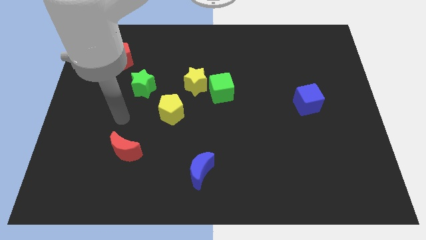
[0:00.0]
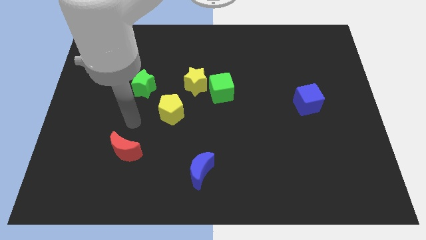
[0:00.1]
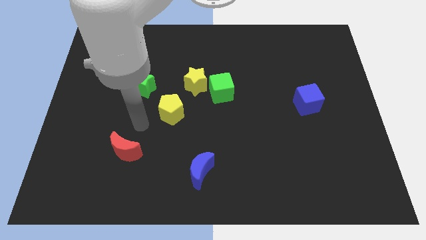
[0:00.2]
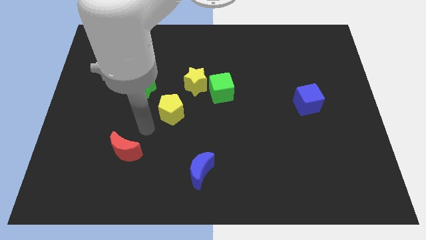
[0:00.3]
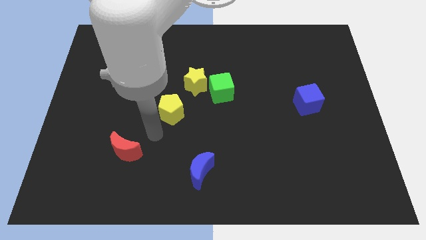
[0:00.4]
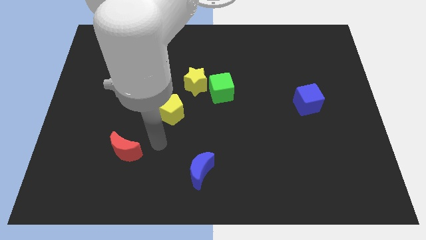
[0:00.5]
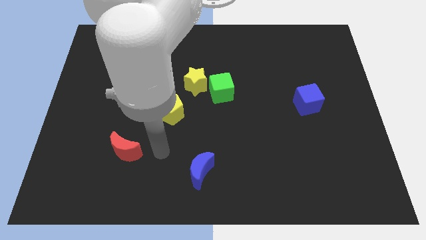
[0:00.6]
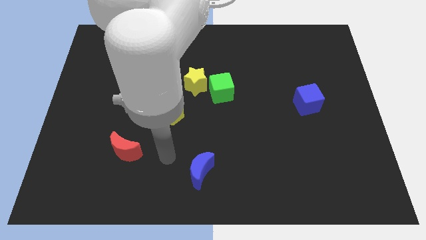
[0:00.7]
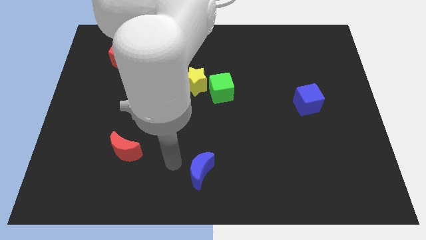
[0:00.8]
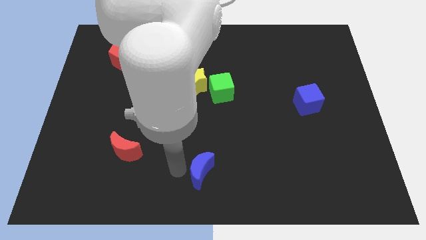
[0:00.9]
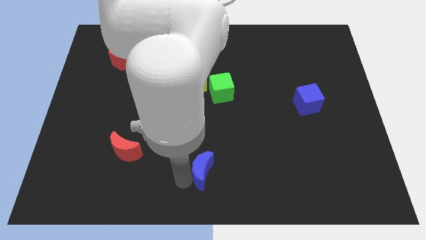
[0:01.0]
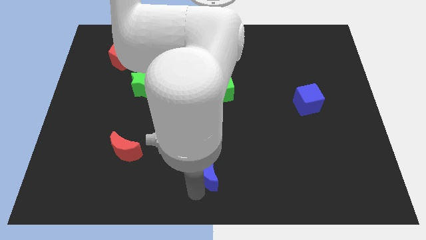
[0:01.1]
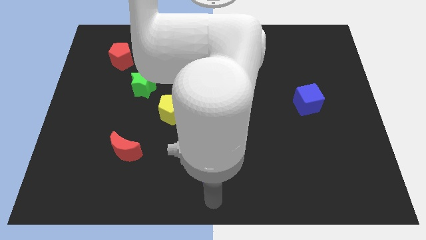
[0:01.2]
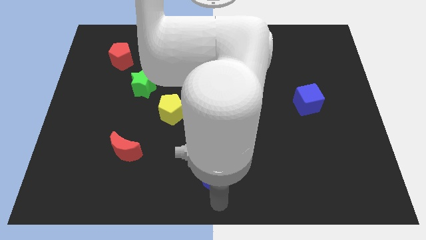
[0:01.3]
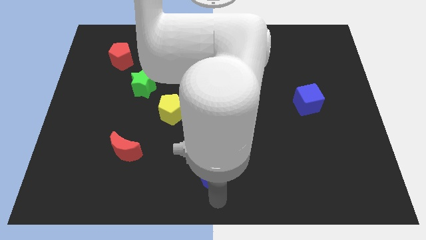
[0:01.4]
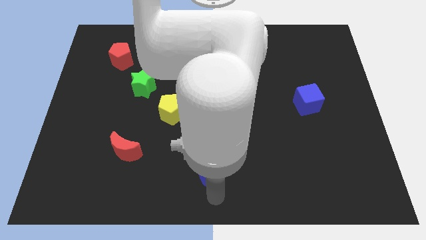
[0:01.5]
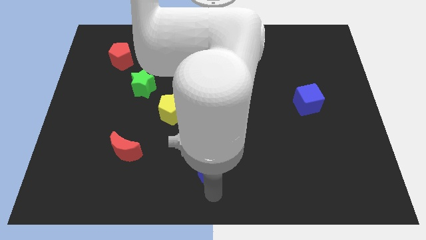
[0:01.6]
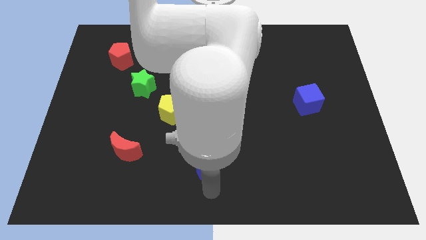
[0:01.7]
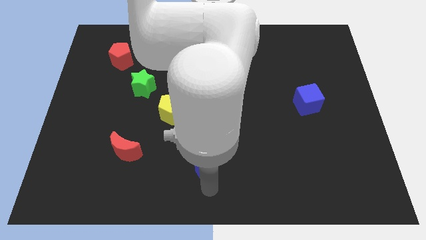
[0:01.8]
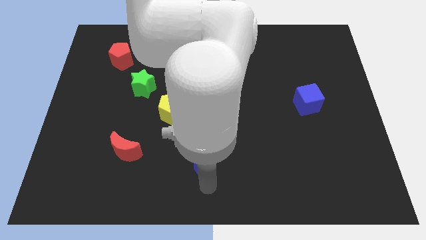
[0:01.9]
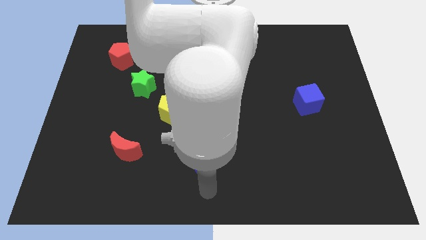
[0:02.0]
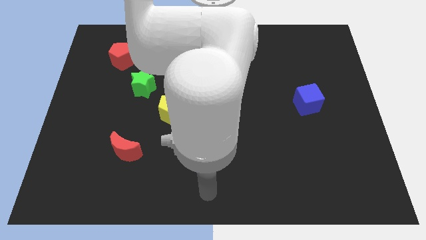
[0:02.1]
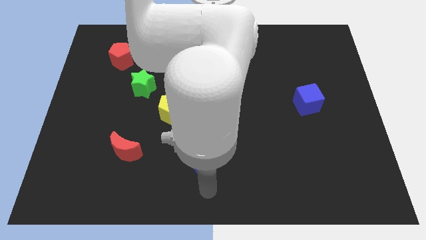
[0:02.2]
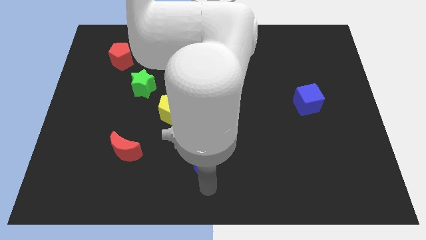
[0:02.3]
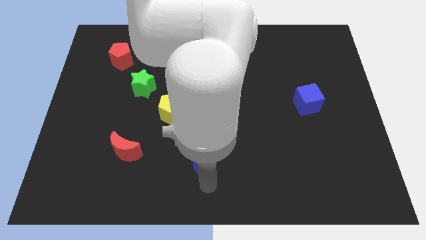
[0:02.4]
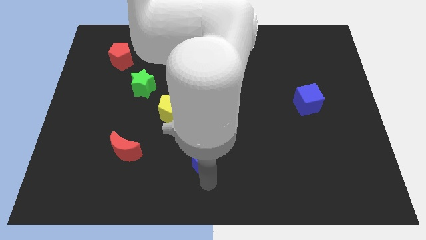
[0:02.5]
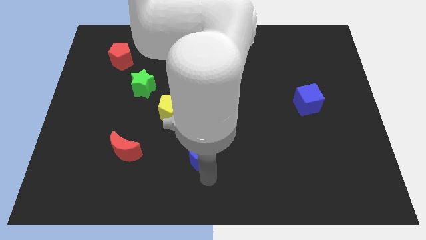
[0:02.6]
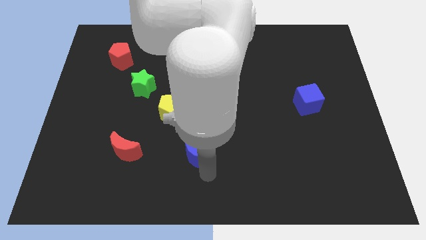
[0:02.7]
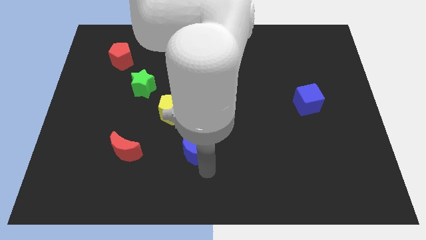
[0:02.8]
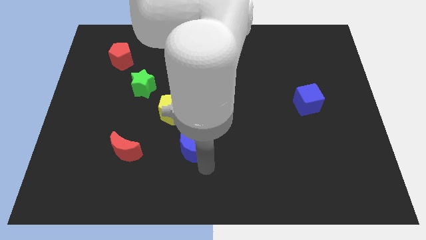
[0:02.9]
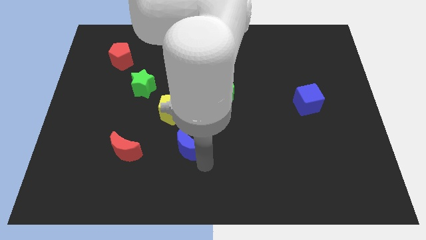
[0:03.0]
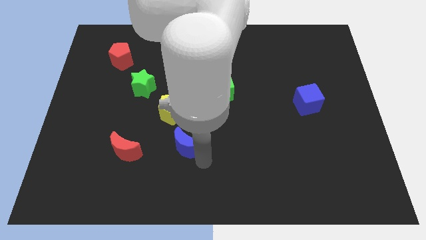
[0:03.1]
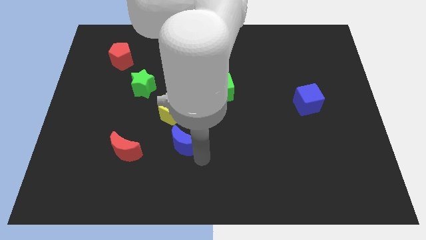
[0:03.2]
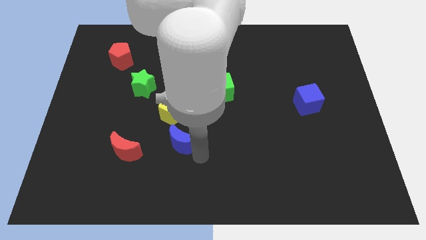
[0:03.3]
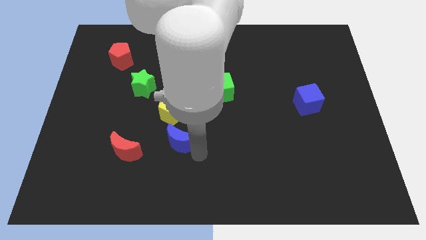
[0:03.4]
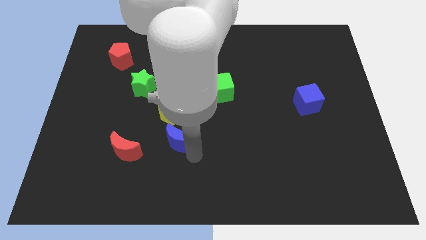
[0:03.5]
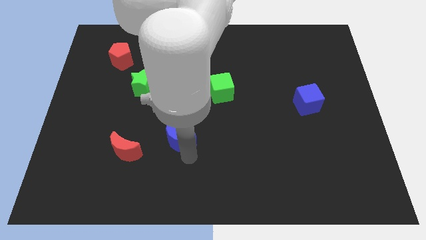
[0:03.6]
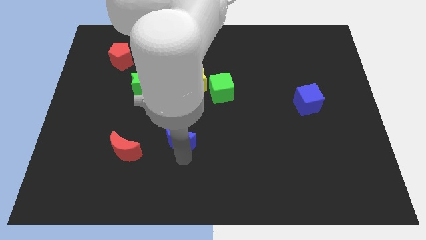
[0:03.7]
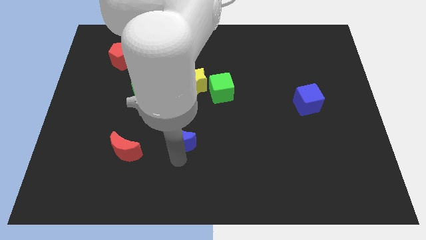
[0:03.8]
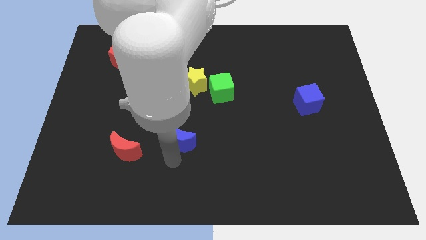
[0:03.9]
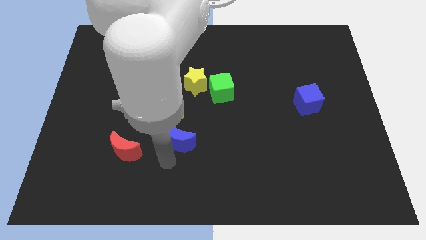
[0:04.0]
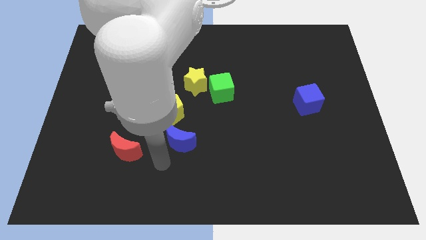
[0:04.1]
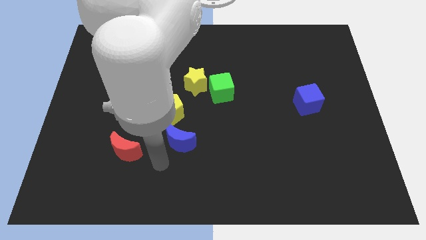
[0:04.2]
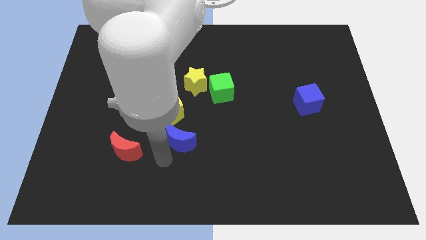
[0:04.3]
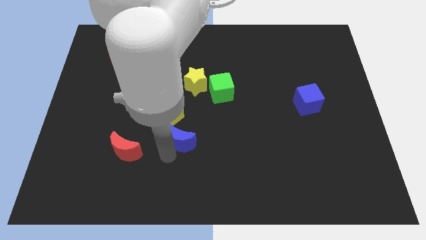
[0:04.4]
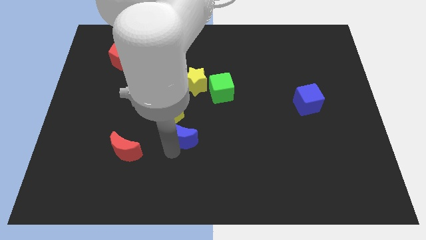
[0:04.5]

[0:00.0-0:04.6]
slightly slide the blue moon upwards

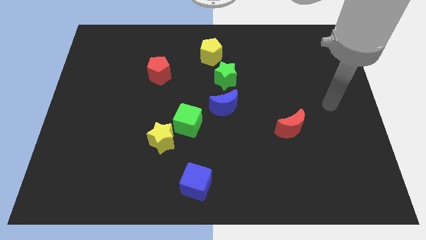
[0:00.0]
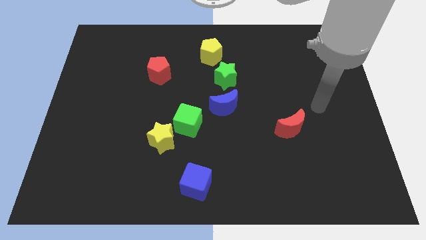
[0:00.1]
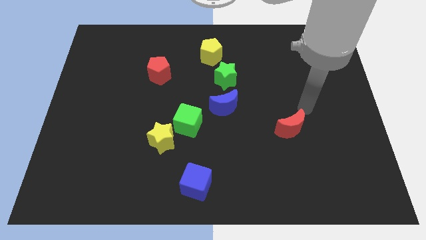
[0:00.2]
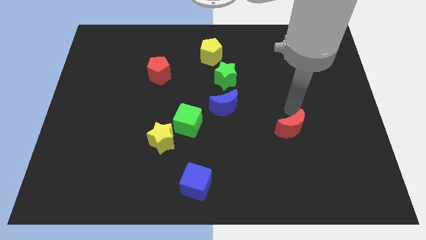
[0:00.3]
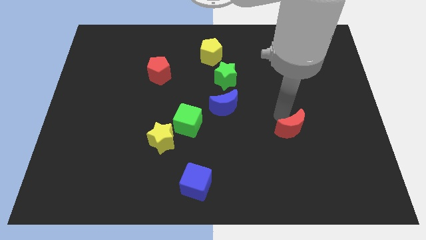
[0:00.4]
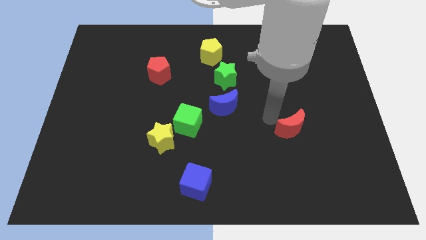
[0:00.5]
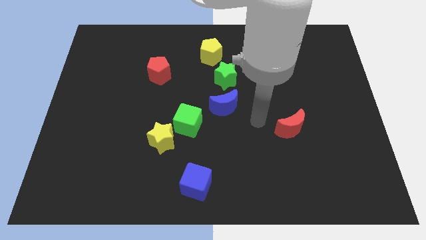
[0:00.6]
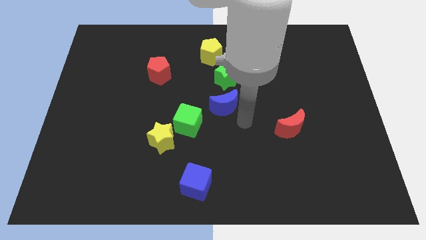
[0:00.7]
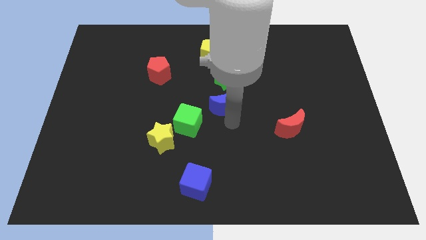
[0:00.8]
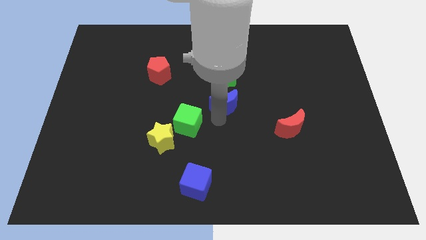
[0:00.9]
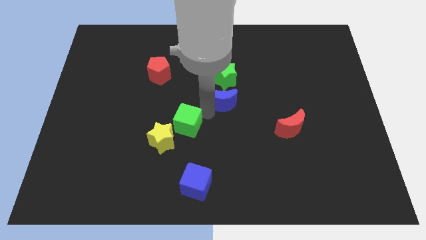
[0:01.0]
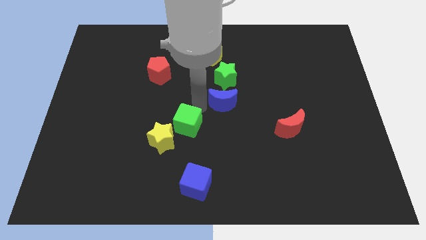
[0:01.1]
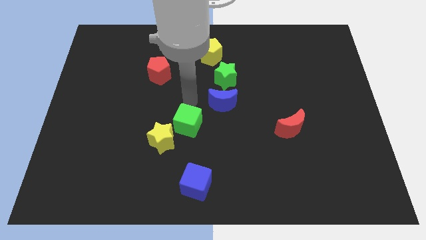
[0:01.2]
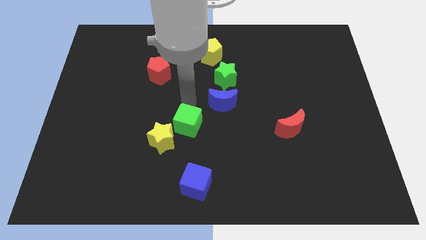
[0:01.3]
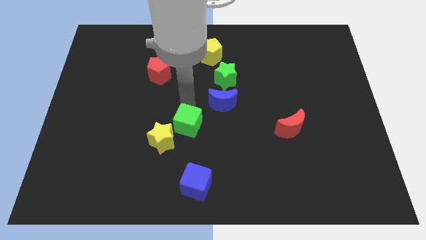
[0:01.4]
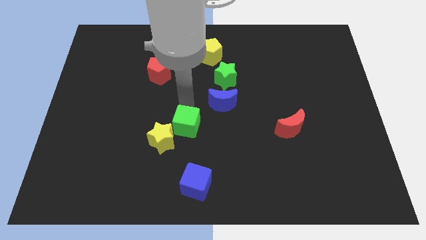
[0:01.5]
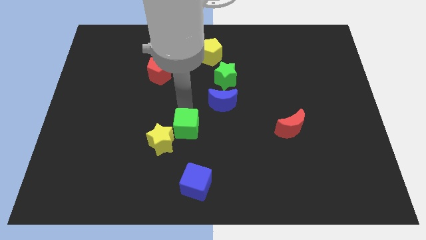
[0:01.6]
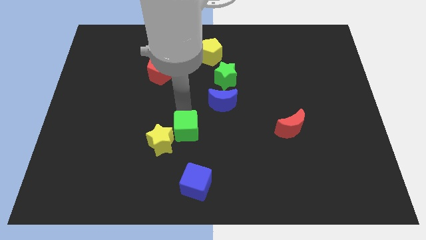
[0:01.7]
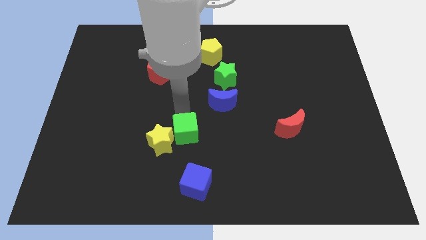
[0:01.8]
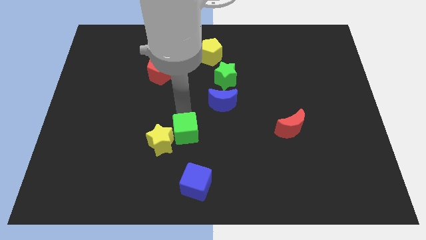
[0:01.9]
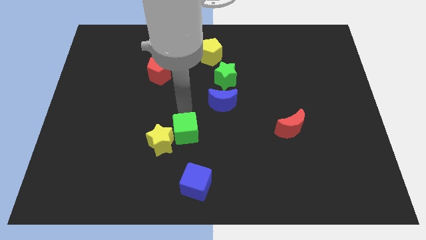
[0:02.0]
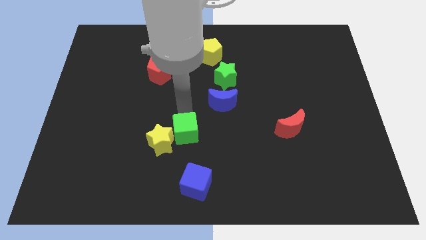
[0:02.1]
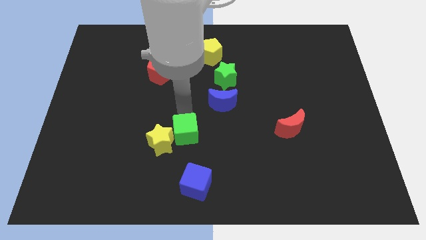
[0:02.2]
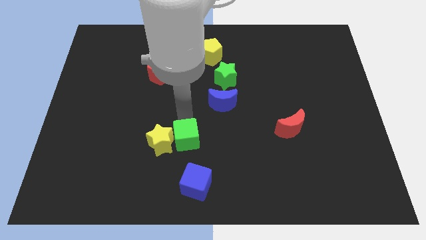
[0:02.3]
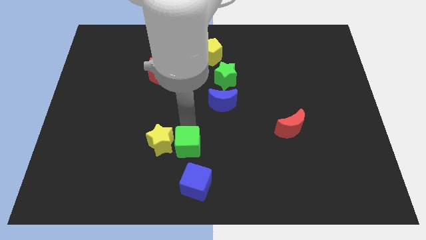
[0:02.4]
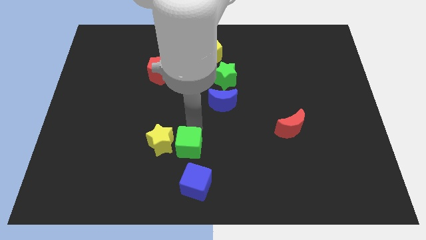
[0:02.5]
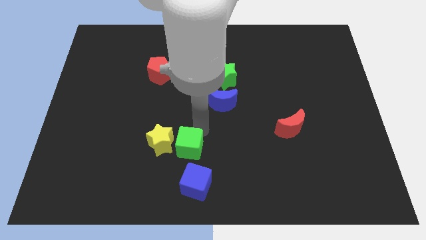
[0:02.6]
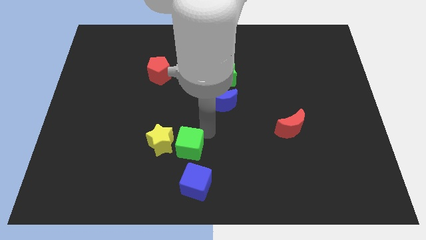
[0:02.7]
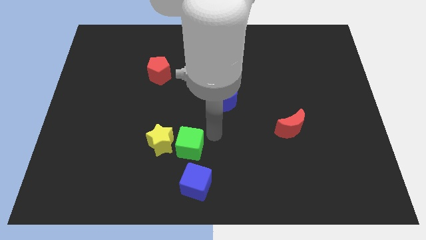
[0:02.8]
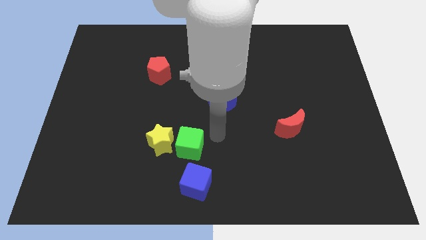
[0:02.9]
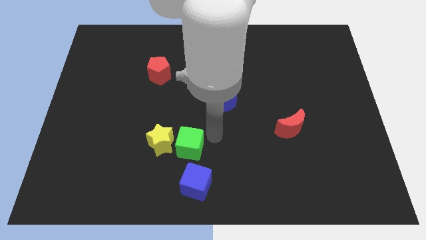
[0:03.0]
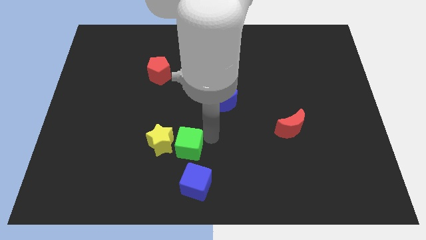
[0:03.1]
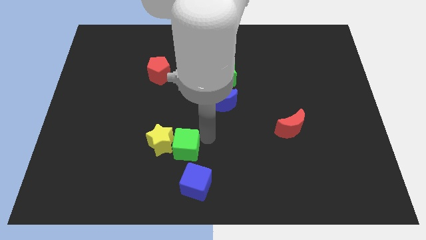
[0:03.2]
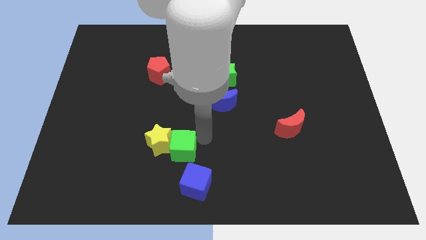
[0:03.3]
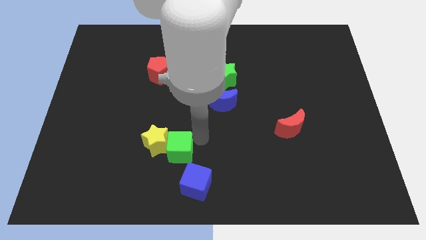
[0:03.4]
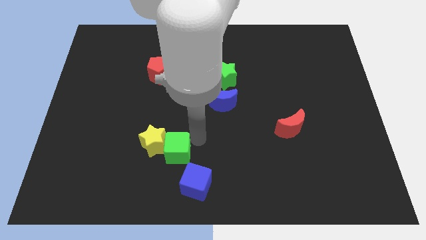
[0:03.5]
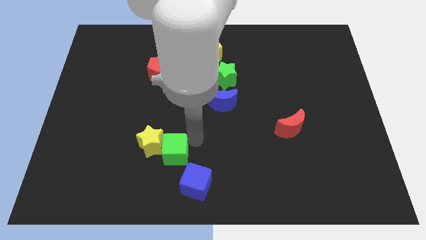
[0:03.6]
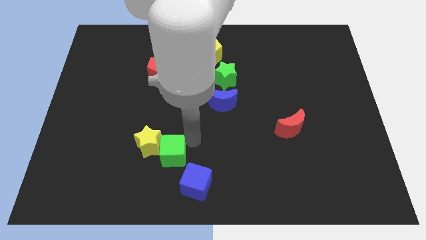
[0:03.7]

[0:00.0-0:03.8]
slightly push the green cube downwards and left
